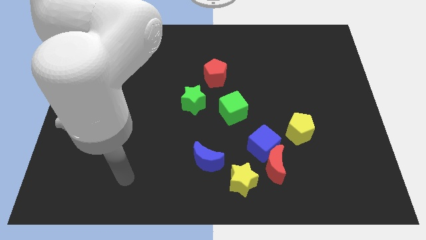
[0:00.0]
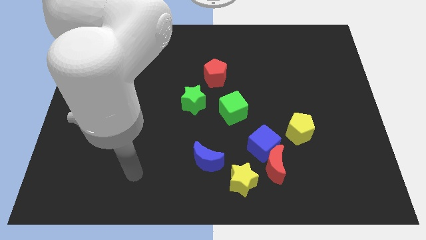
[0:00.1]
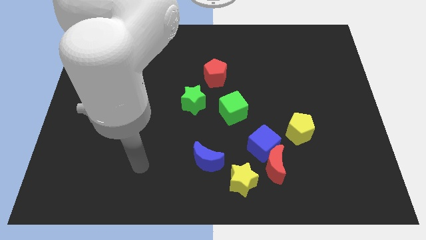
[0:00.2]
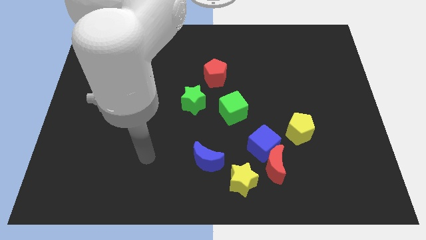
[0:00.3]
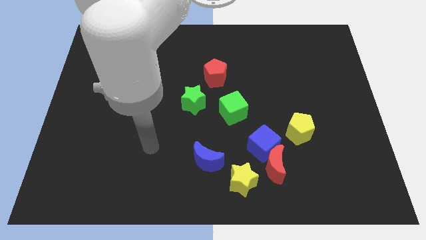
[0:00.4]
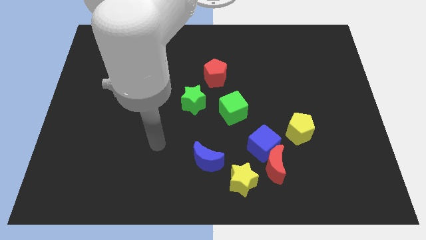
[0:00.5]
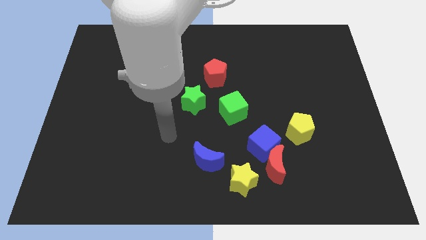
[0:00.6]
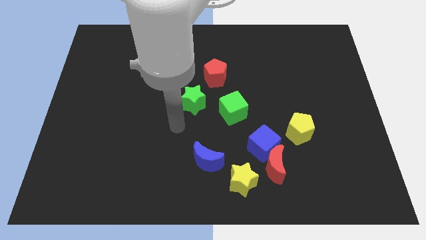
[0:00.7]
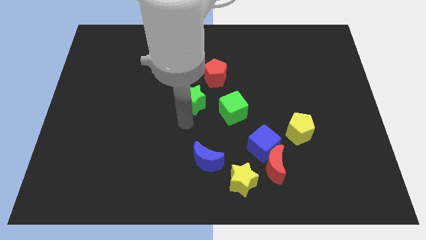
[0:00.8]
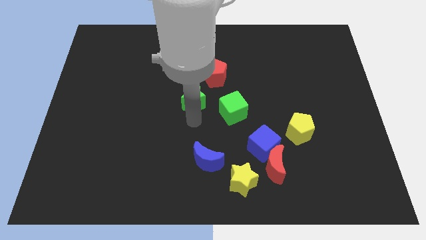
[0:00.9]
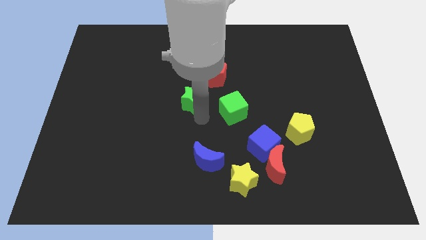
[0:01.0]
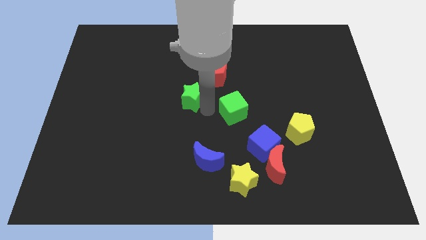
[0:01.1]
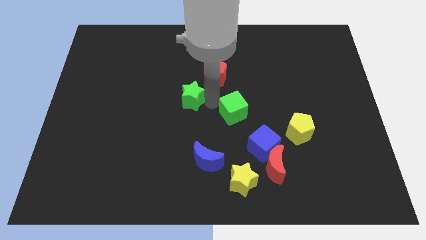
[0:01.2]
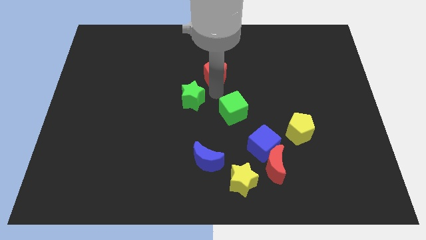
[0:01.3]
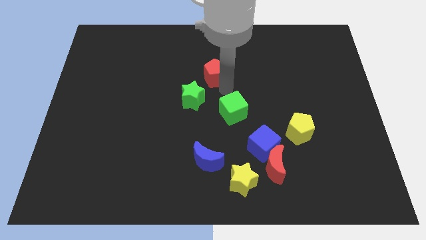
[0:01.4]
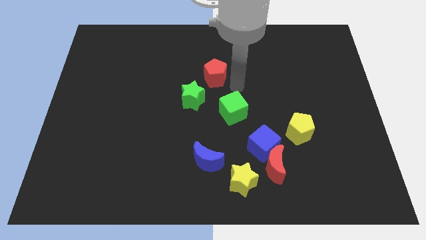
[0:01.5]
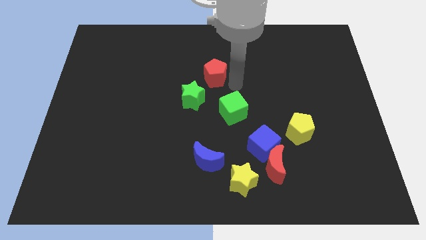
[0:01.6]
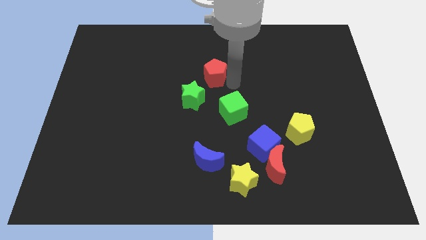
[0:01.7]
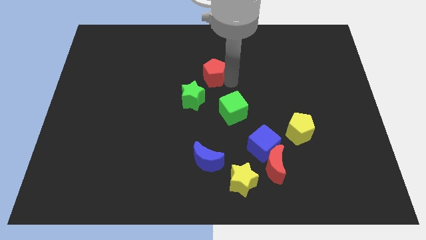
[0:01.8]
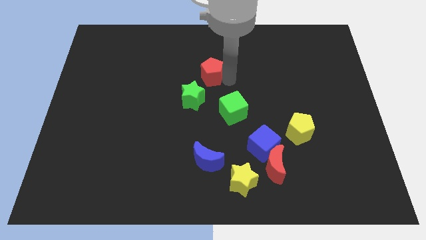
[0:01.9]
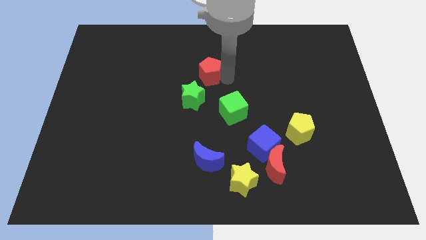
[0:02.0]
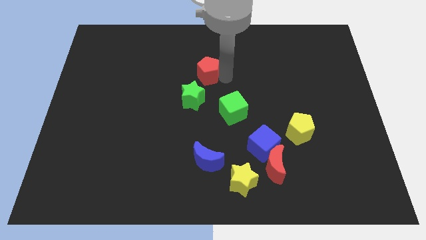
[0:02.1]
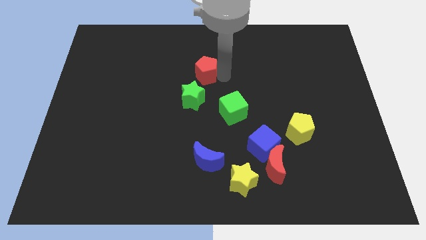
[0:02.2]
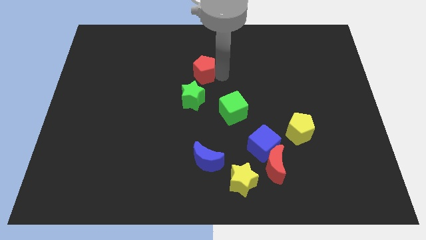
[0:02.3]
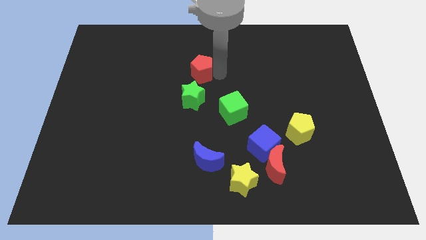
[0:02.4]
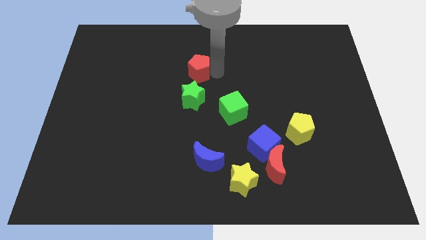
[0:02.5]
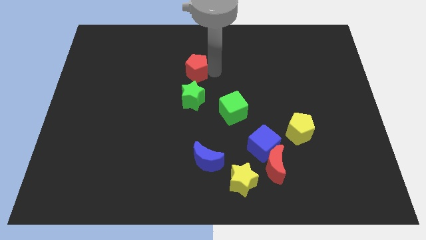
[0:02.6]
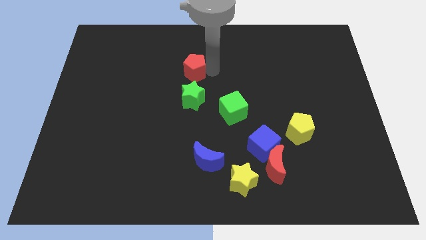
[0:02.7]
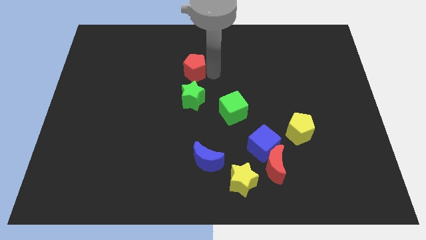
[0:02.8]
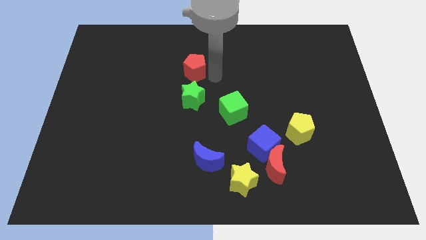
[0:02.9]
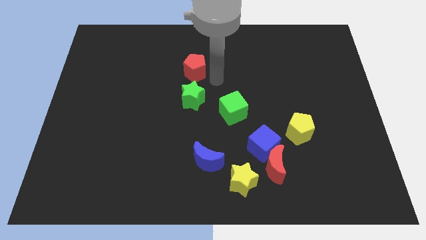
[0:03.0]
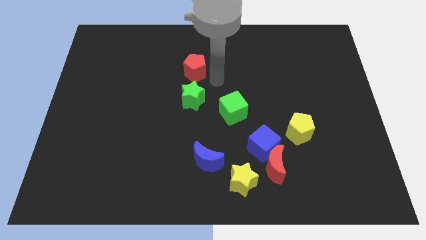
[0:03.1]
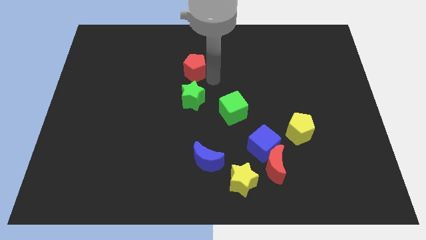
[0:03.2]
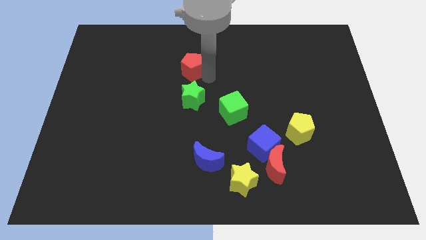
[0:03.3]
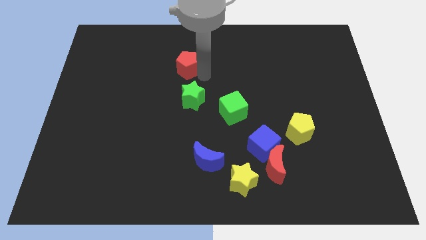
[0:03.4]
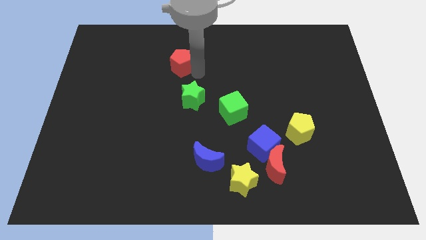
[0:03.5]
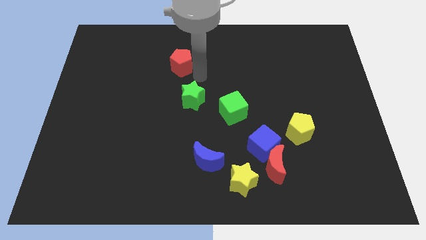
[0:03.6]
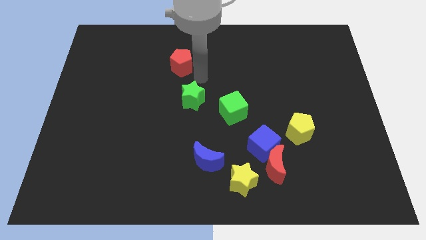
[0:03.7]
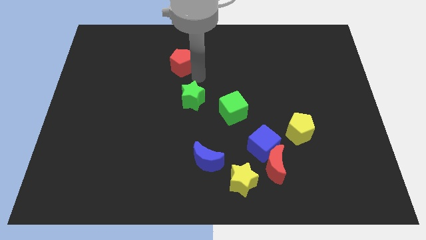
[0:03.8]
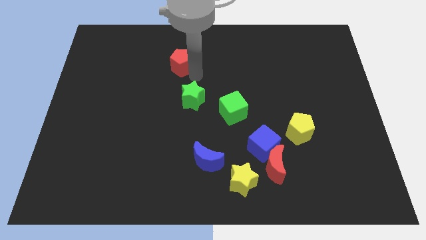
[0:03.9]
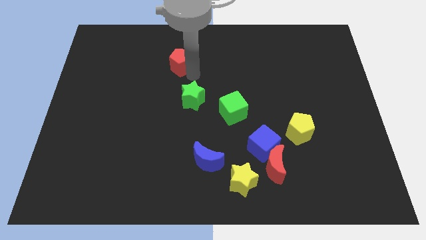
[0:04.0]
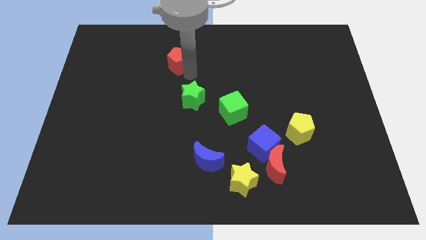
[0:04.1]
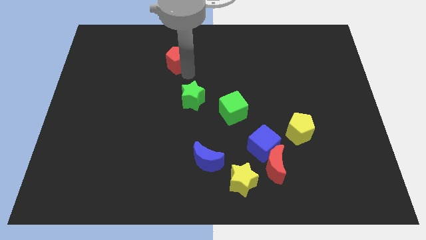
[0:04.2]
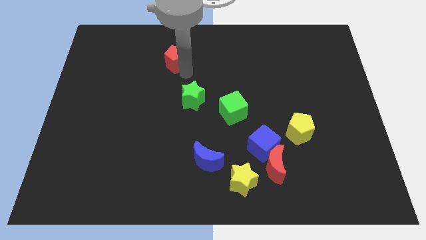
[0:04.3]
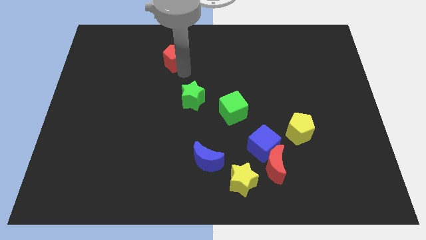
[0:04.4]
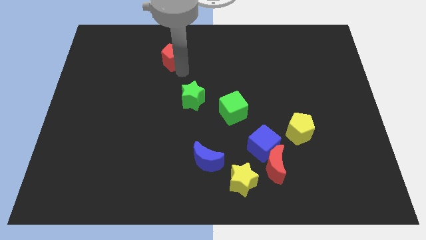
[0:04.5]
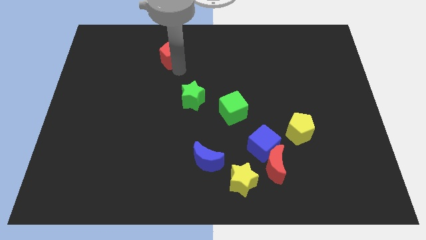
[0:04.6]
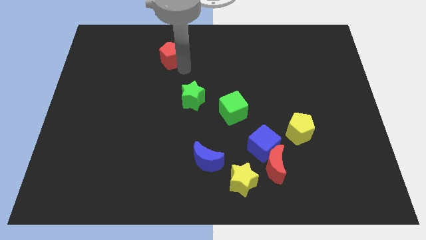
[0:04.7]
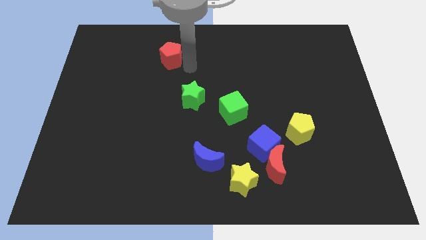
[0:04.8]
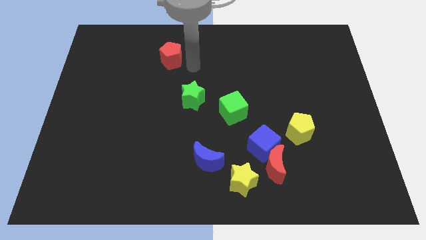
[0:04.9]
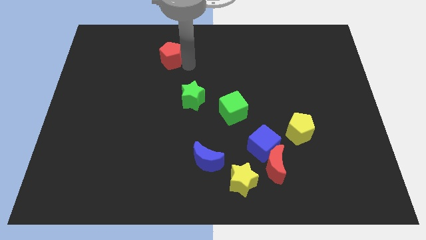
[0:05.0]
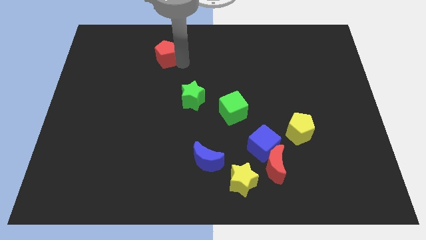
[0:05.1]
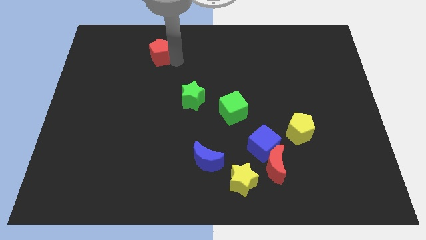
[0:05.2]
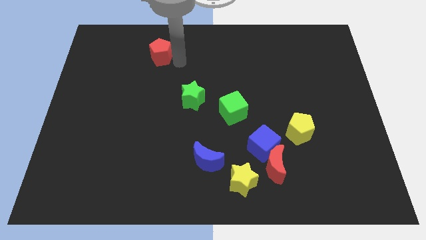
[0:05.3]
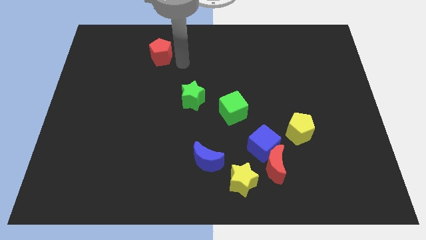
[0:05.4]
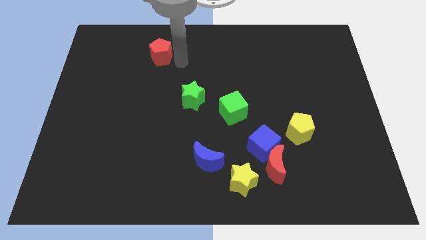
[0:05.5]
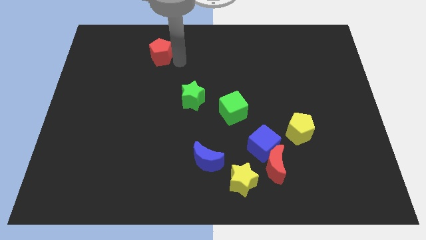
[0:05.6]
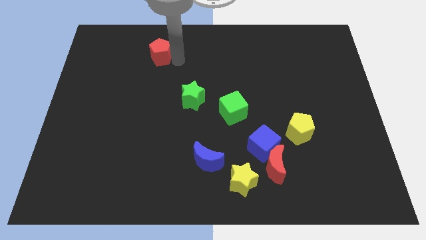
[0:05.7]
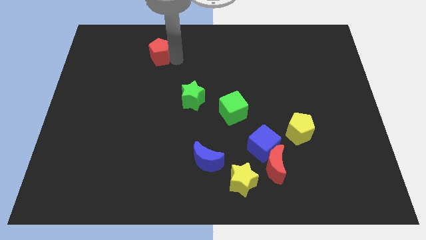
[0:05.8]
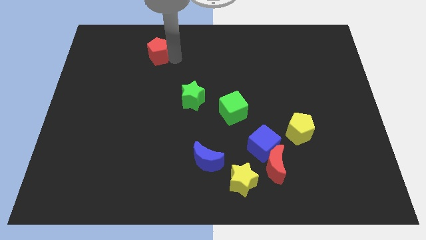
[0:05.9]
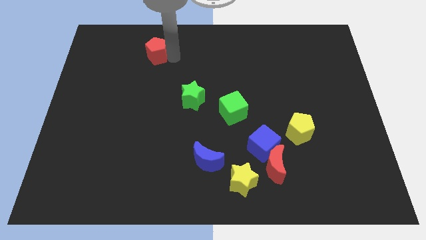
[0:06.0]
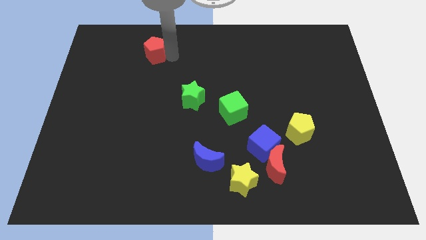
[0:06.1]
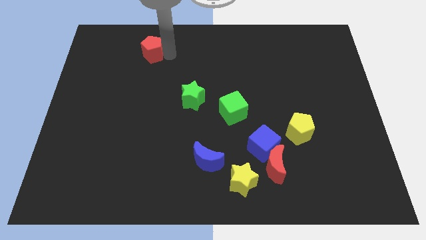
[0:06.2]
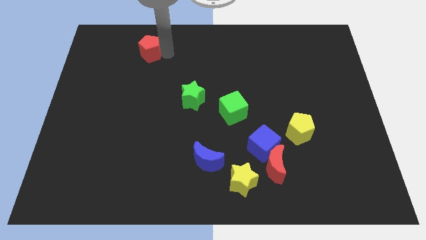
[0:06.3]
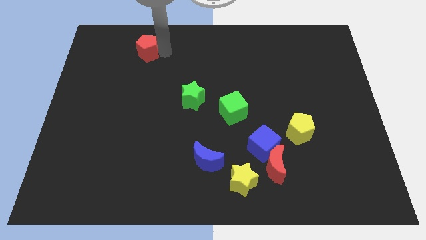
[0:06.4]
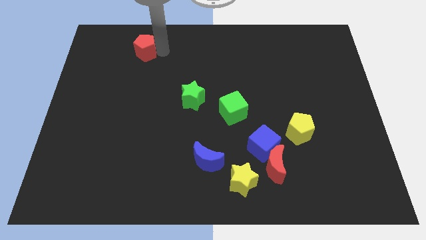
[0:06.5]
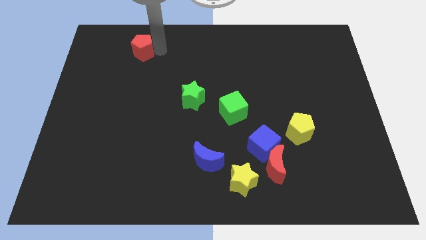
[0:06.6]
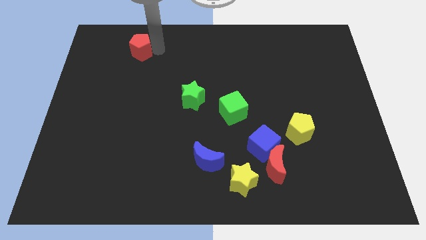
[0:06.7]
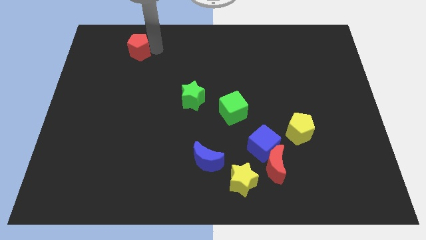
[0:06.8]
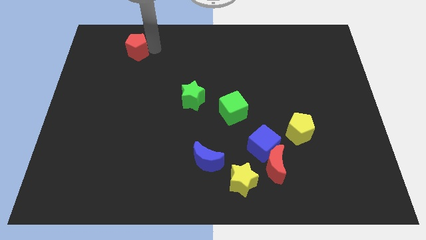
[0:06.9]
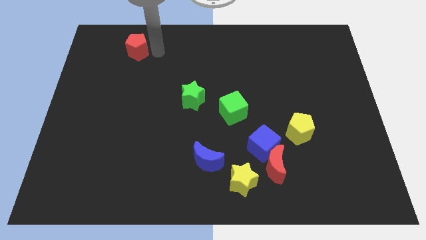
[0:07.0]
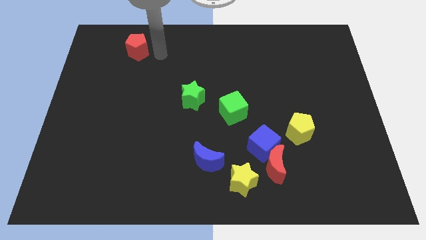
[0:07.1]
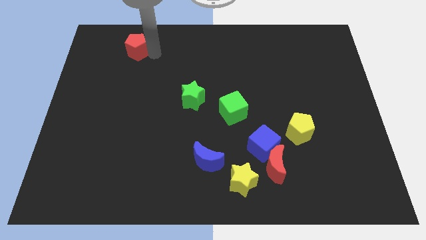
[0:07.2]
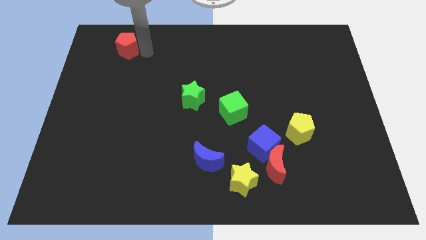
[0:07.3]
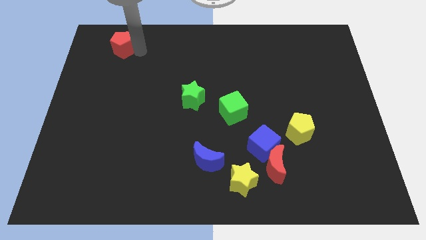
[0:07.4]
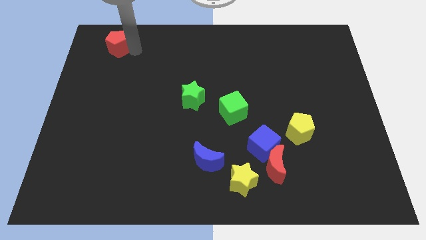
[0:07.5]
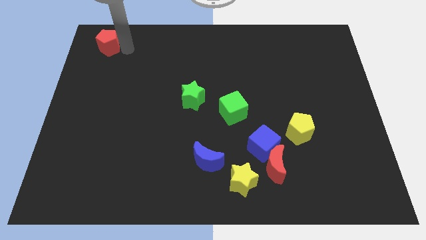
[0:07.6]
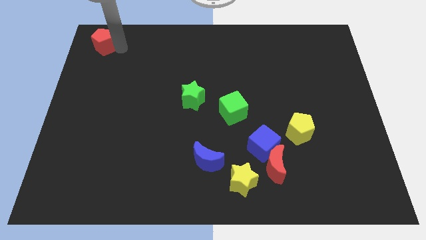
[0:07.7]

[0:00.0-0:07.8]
move the red pentagon to the top left corner
